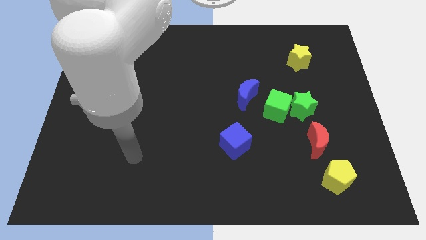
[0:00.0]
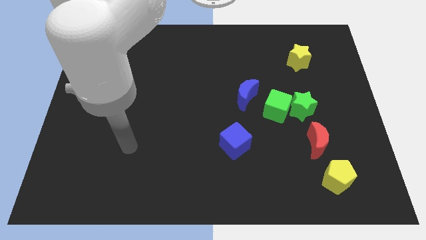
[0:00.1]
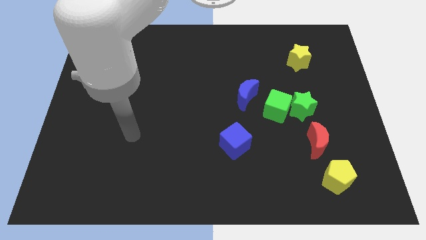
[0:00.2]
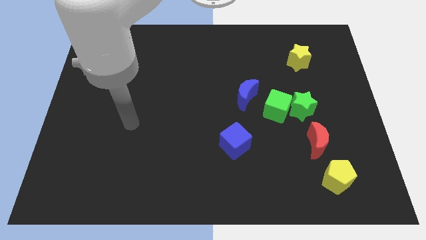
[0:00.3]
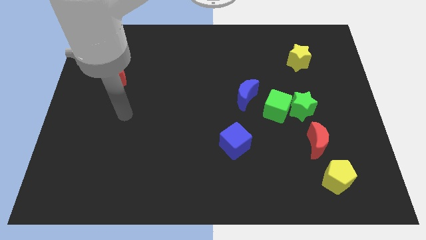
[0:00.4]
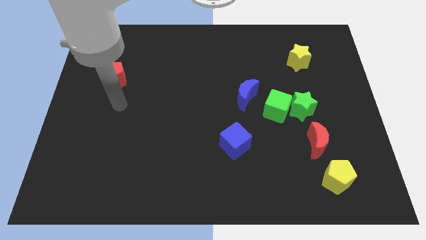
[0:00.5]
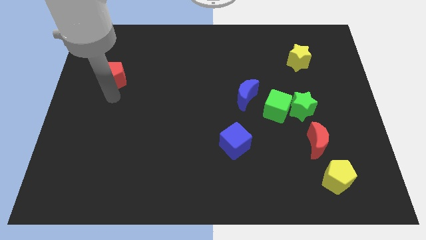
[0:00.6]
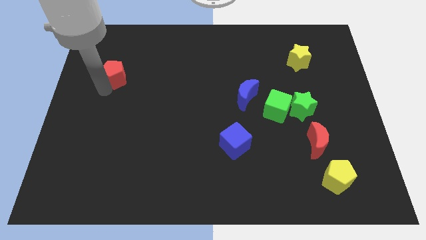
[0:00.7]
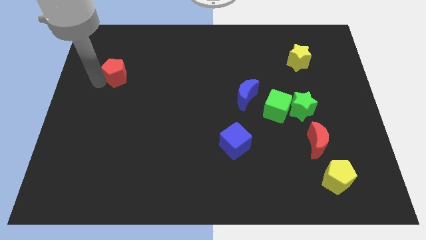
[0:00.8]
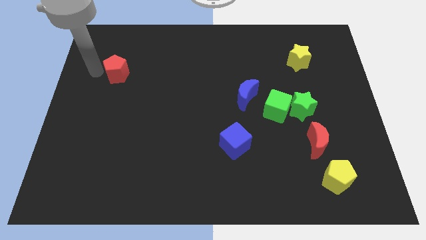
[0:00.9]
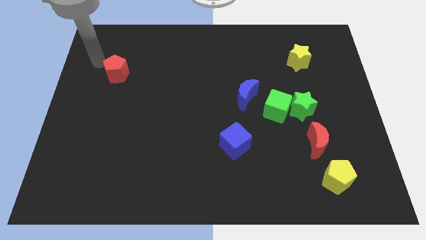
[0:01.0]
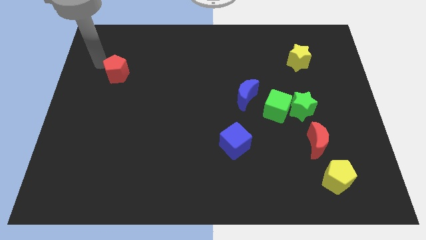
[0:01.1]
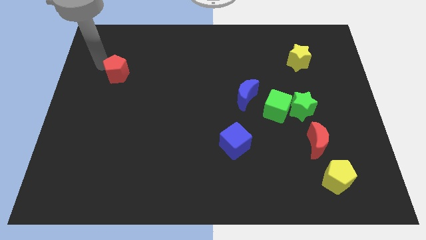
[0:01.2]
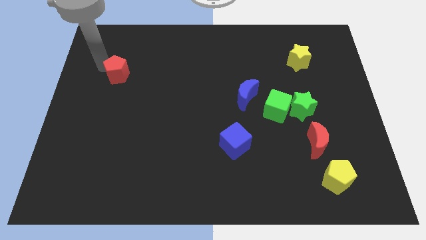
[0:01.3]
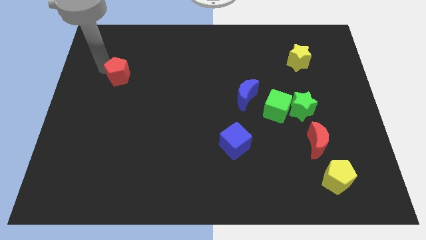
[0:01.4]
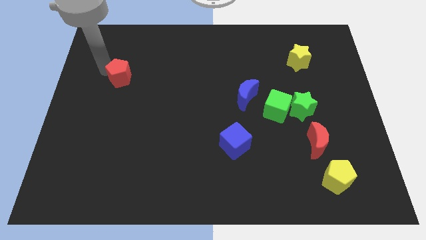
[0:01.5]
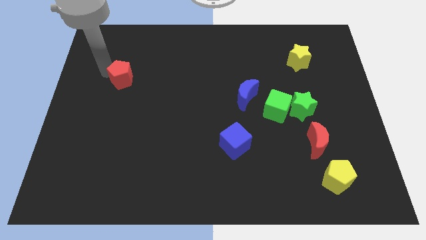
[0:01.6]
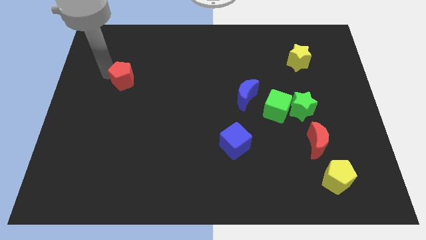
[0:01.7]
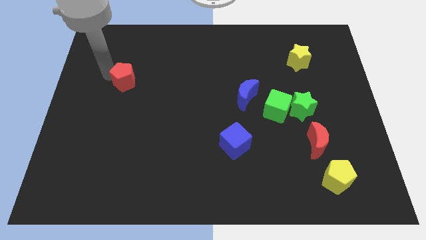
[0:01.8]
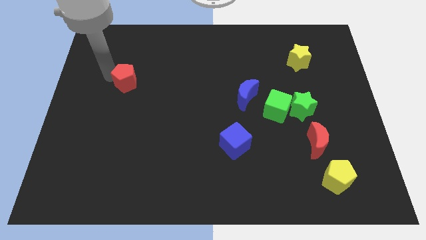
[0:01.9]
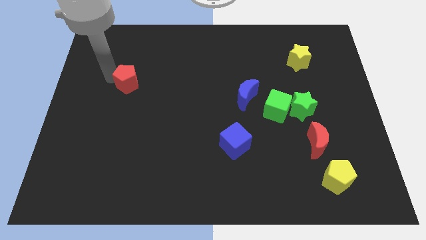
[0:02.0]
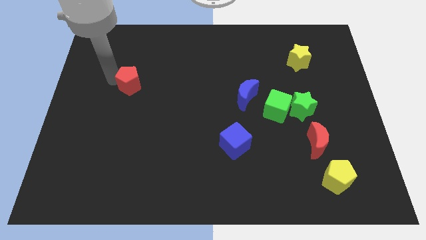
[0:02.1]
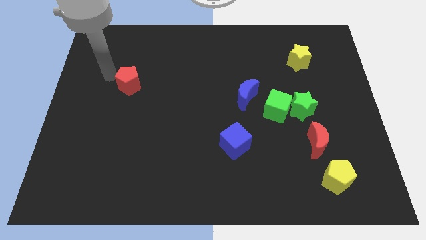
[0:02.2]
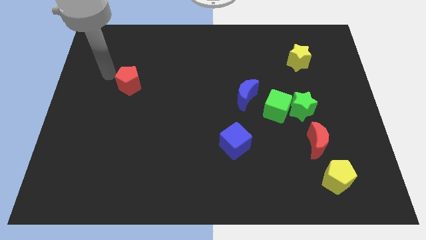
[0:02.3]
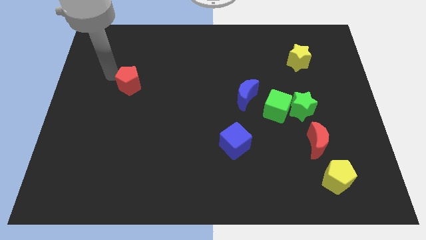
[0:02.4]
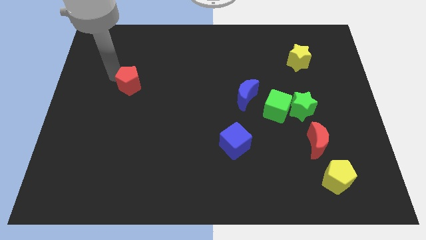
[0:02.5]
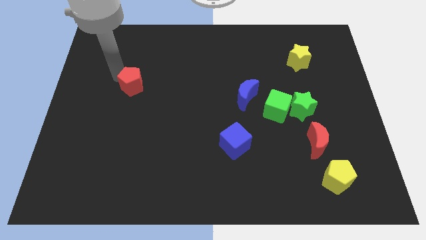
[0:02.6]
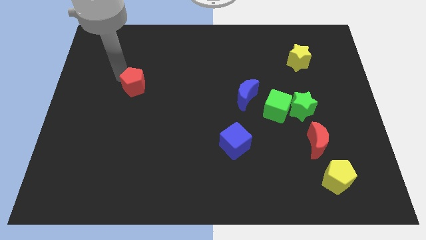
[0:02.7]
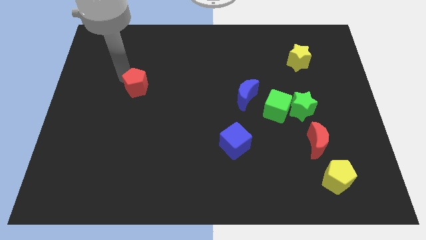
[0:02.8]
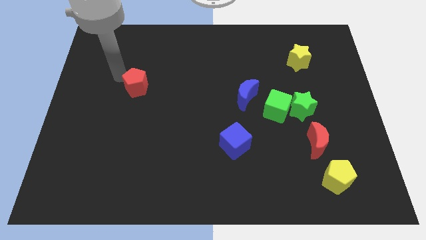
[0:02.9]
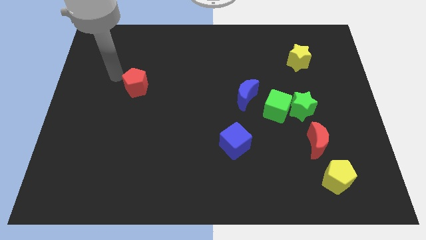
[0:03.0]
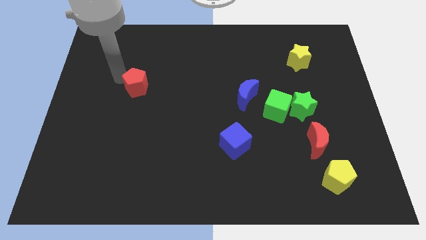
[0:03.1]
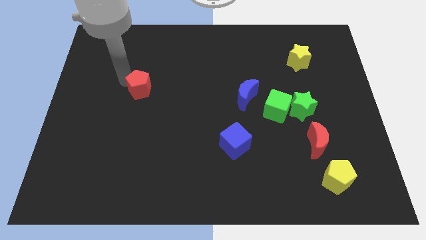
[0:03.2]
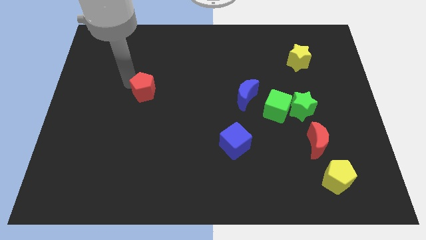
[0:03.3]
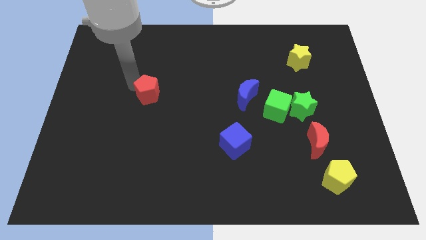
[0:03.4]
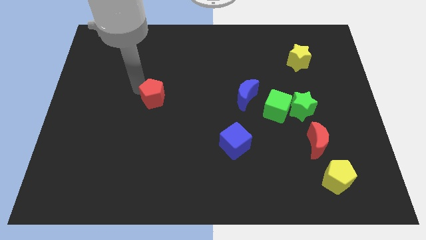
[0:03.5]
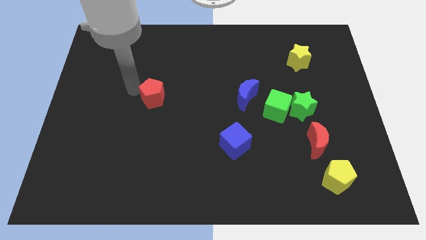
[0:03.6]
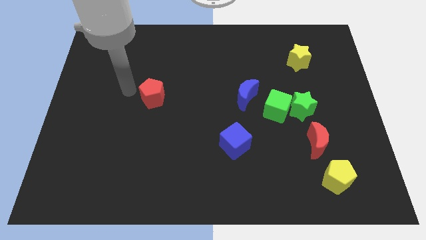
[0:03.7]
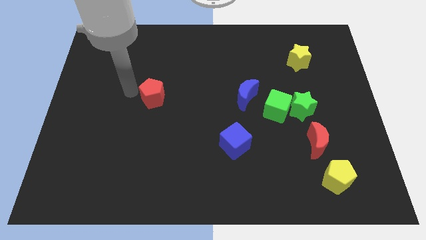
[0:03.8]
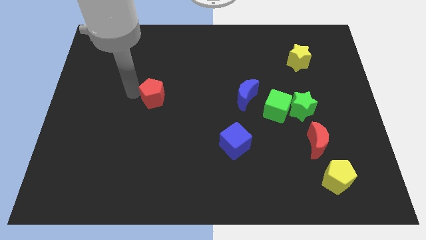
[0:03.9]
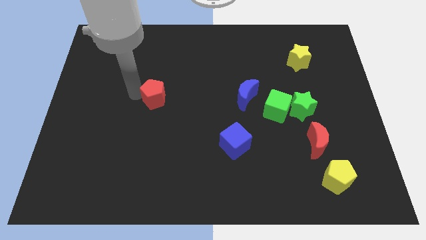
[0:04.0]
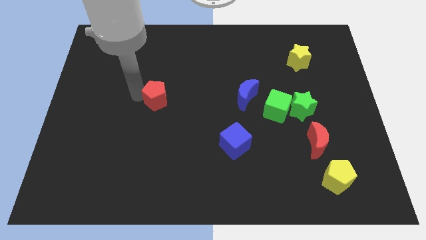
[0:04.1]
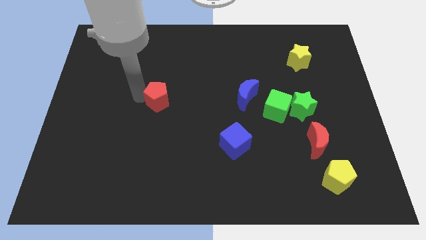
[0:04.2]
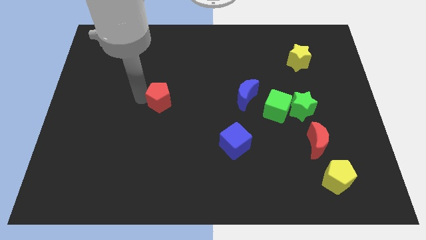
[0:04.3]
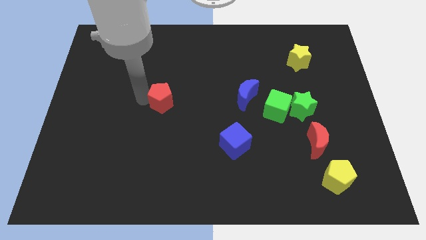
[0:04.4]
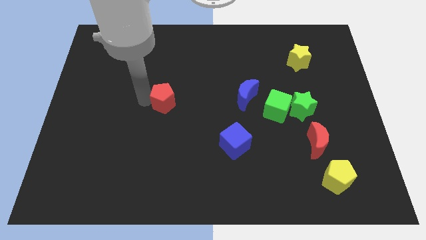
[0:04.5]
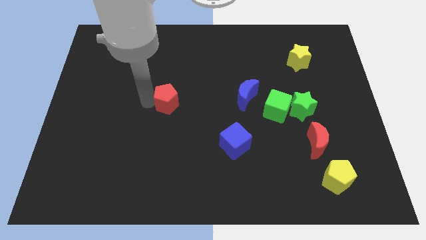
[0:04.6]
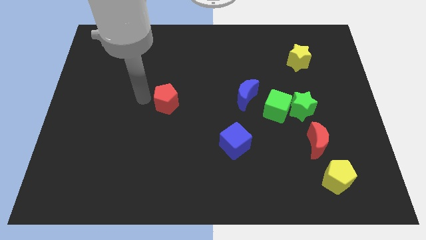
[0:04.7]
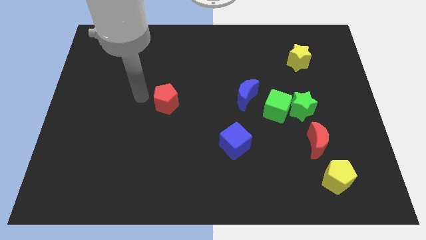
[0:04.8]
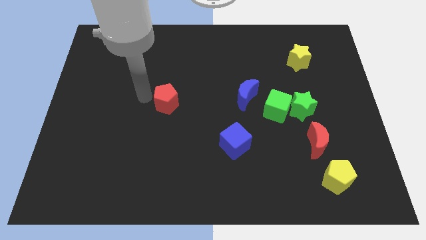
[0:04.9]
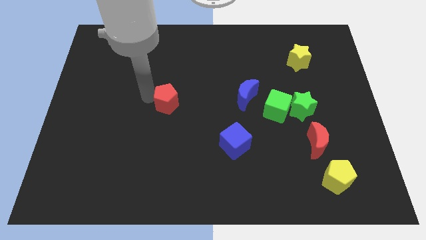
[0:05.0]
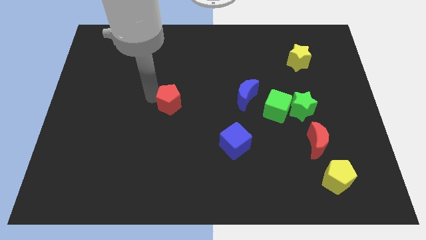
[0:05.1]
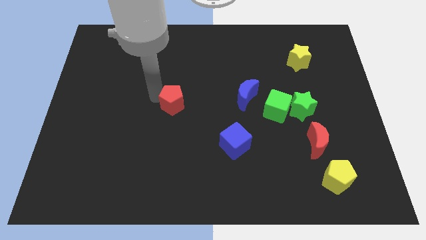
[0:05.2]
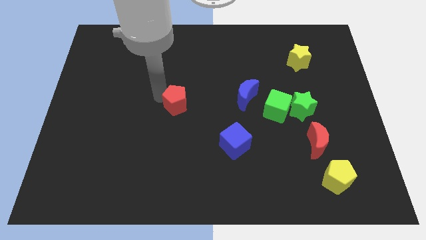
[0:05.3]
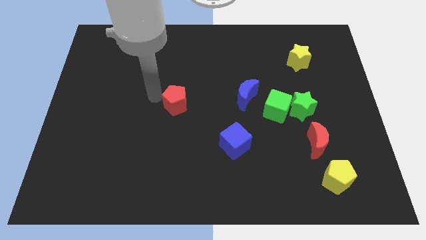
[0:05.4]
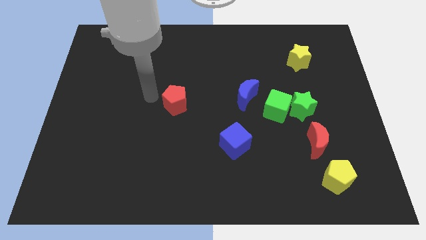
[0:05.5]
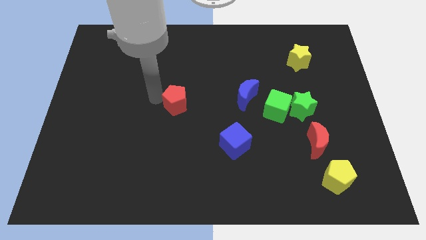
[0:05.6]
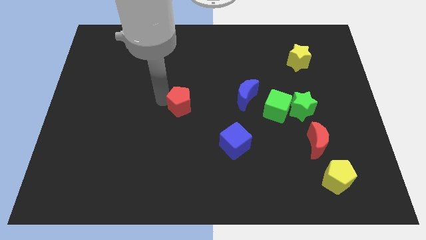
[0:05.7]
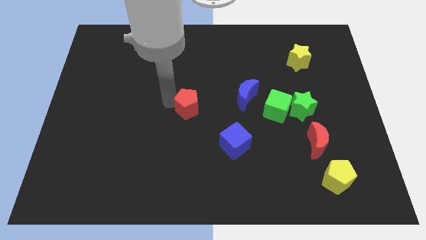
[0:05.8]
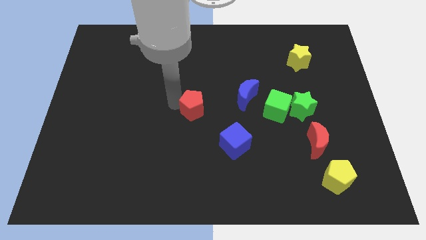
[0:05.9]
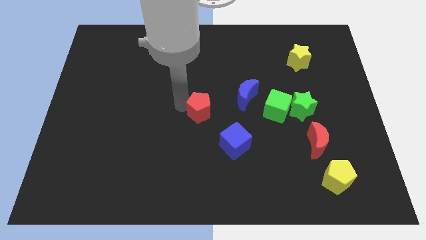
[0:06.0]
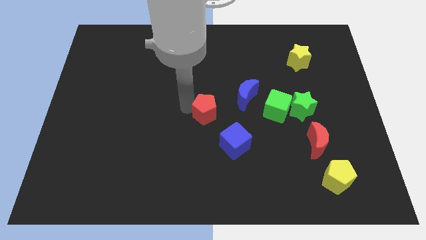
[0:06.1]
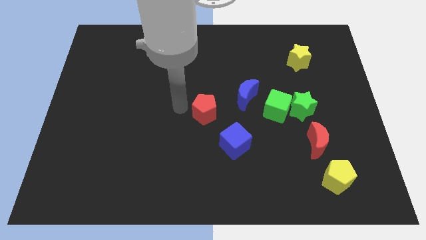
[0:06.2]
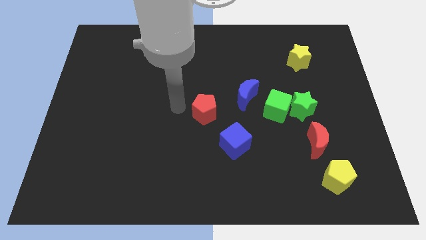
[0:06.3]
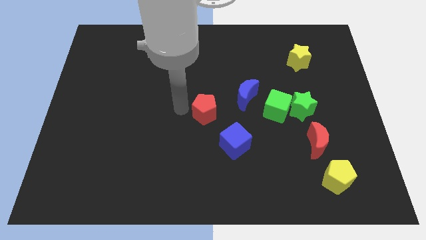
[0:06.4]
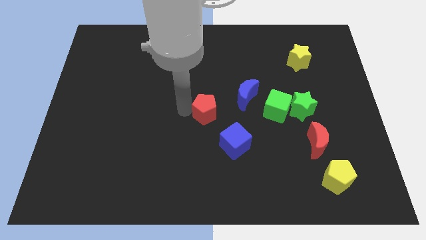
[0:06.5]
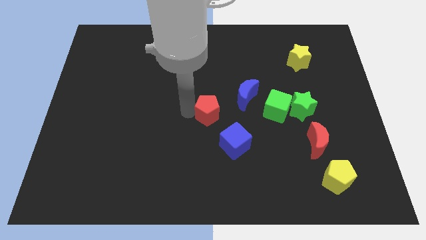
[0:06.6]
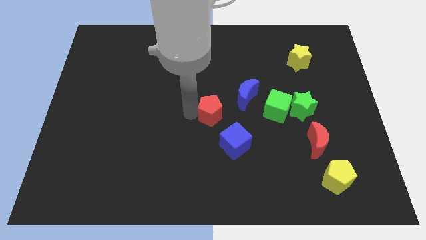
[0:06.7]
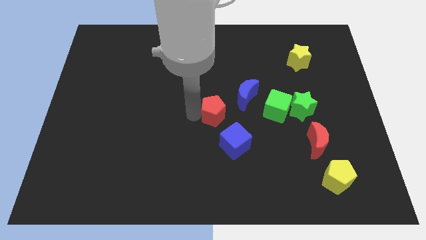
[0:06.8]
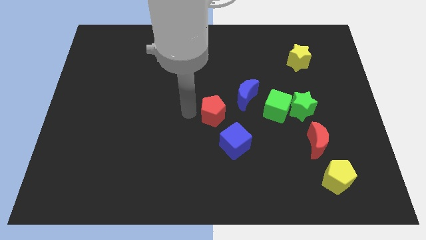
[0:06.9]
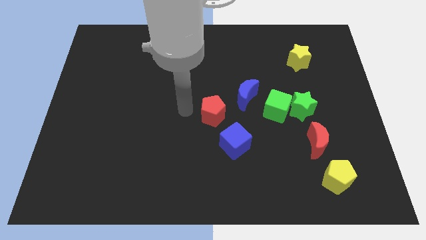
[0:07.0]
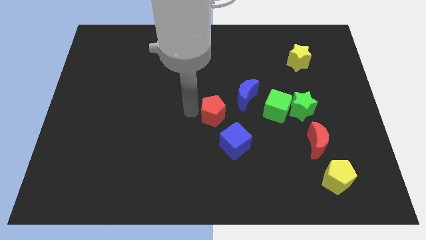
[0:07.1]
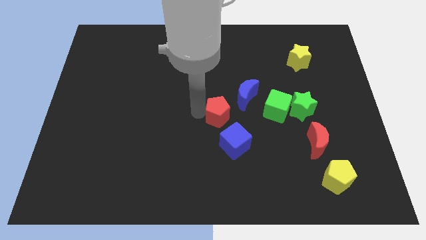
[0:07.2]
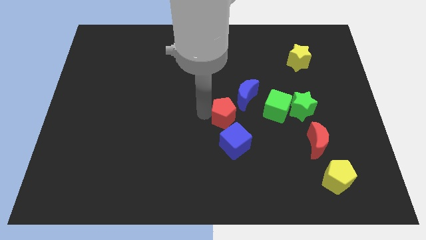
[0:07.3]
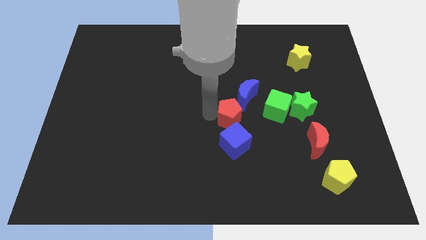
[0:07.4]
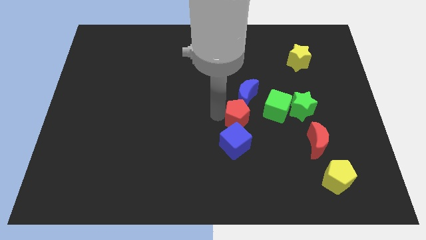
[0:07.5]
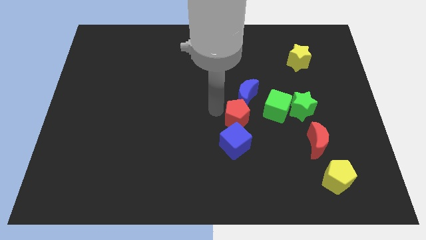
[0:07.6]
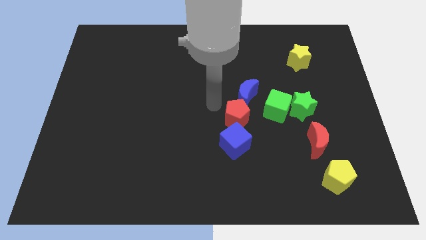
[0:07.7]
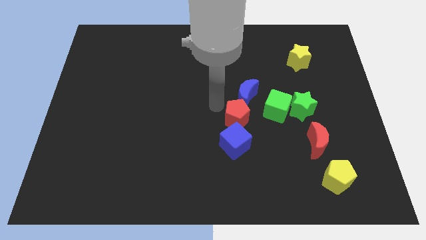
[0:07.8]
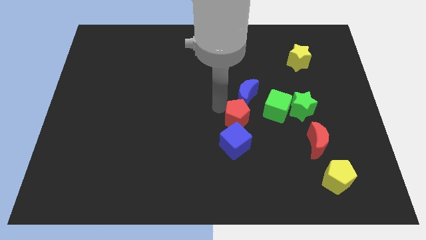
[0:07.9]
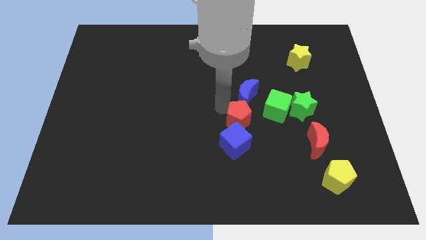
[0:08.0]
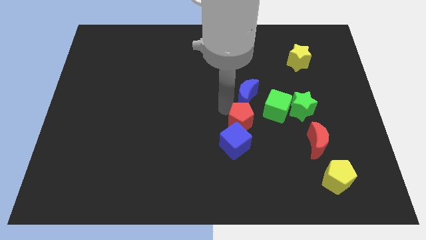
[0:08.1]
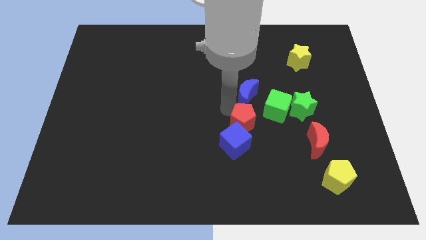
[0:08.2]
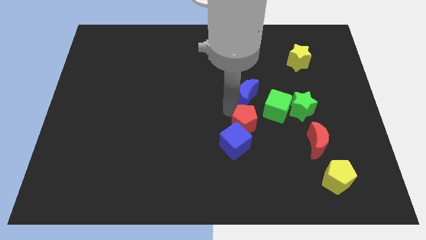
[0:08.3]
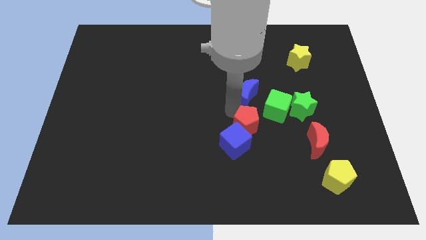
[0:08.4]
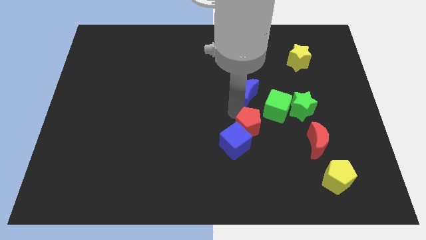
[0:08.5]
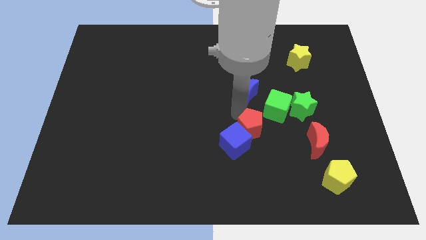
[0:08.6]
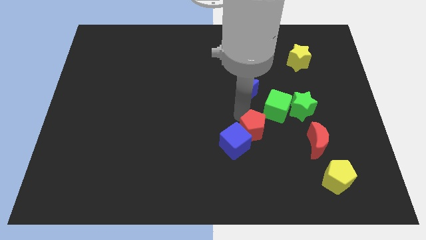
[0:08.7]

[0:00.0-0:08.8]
push the red pentagon just left of the red moon
